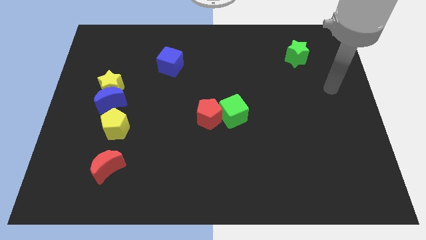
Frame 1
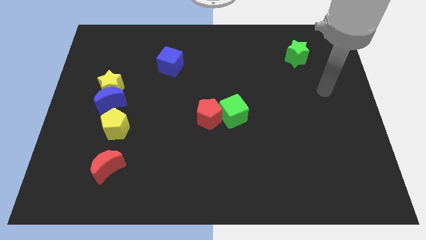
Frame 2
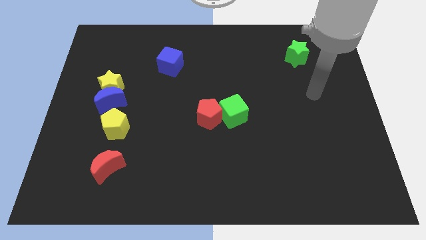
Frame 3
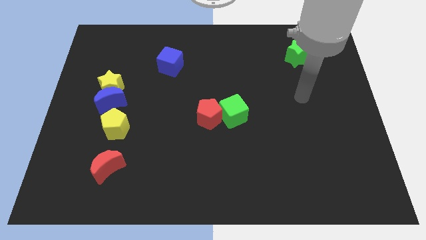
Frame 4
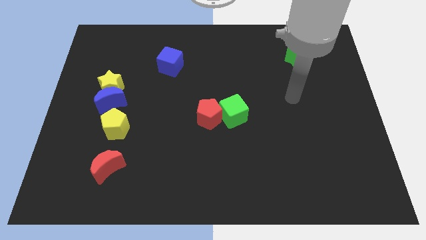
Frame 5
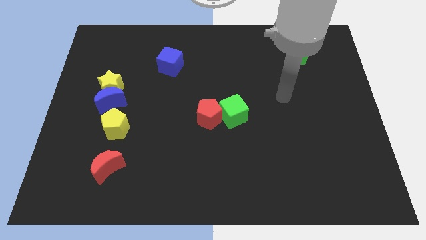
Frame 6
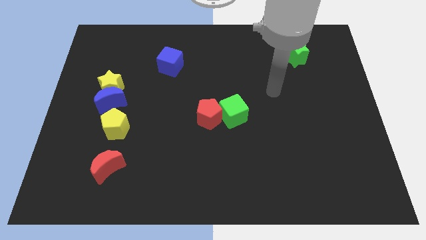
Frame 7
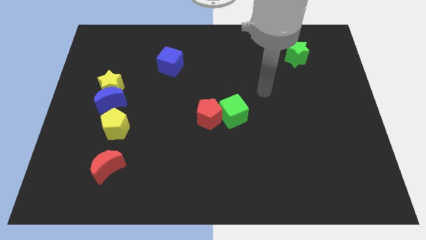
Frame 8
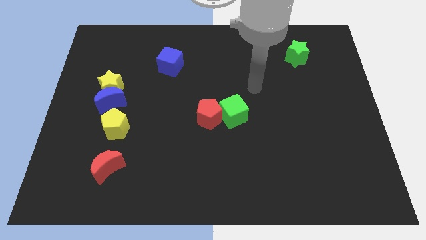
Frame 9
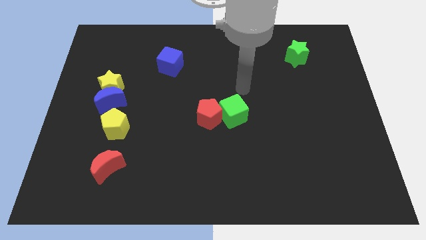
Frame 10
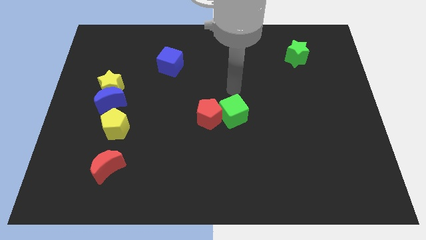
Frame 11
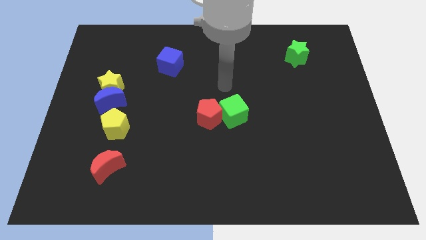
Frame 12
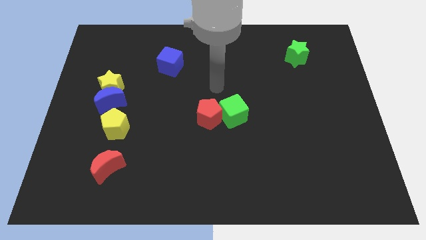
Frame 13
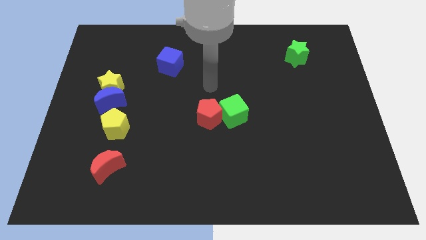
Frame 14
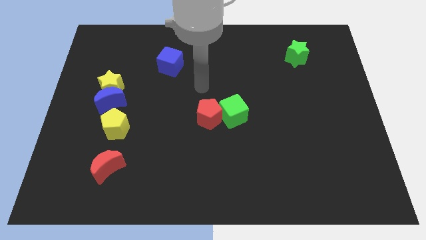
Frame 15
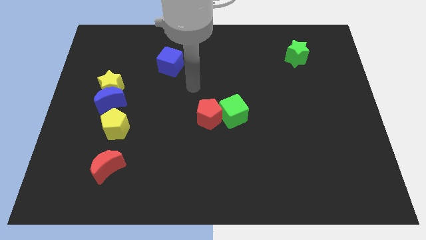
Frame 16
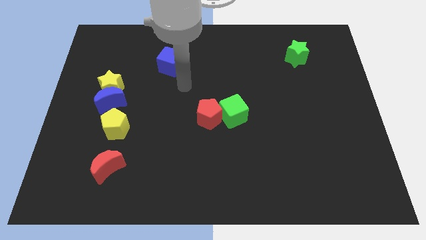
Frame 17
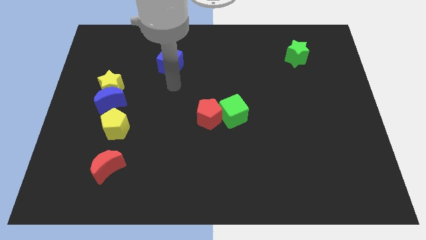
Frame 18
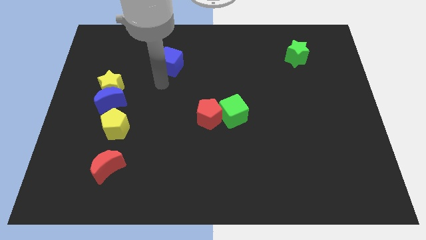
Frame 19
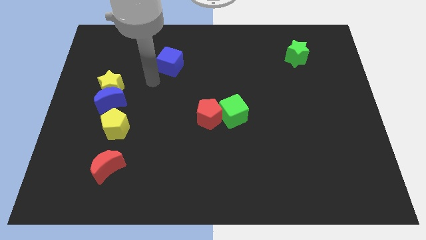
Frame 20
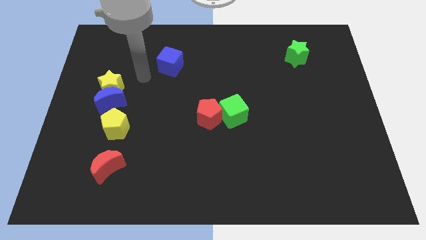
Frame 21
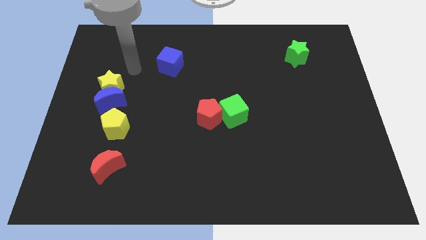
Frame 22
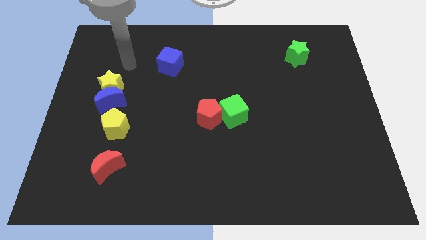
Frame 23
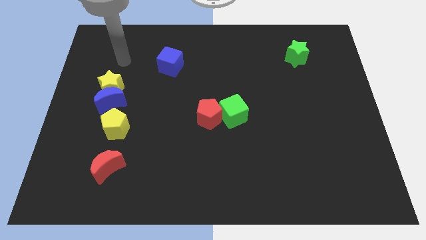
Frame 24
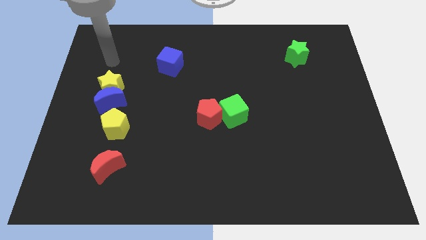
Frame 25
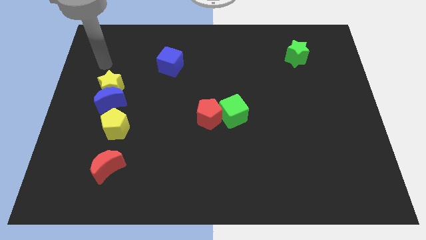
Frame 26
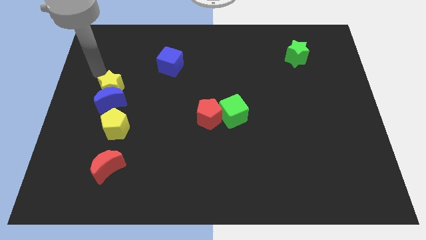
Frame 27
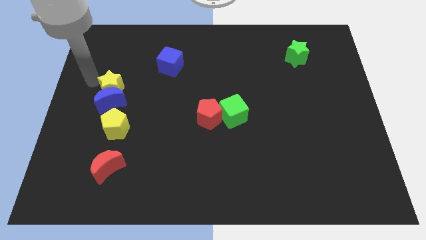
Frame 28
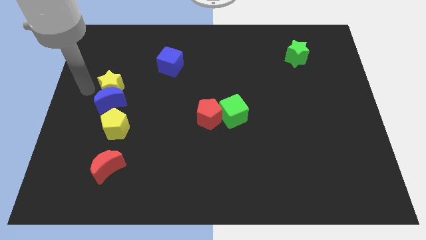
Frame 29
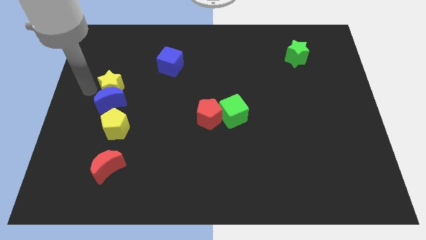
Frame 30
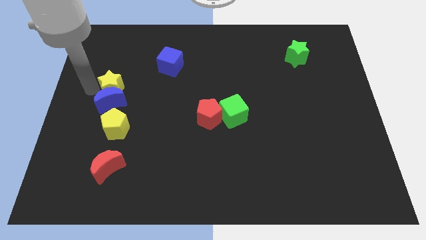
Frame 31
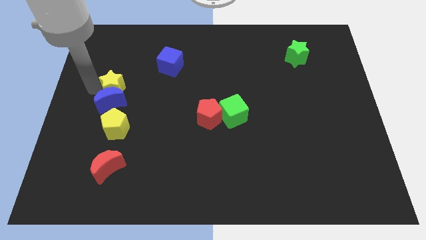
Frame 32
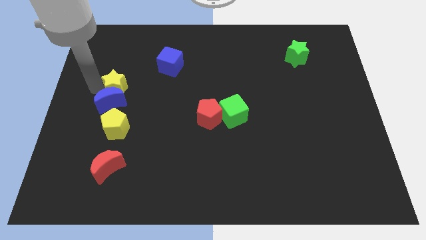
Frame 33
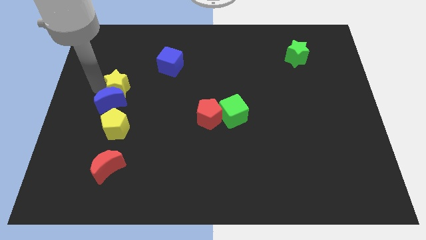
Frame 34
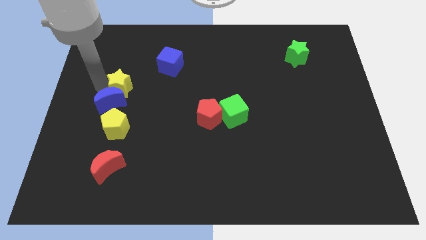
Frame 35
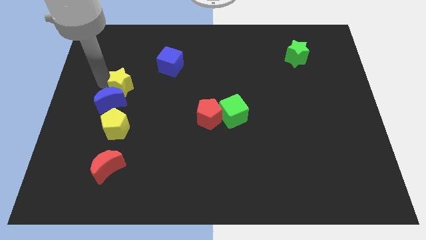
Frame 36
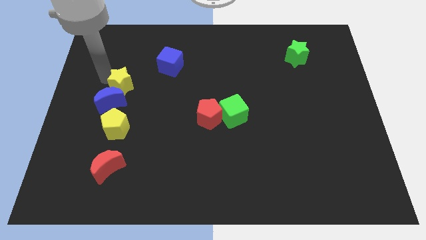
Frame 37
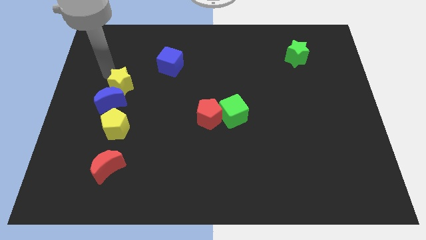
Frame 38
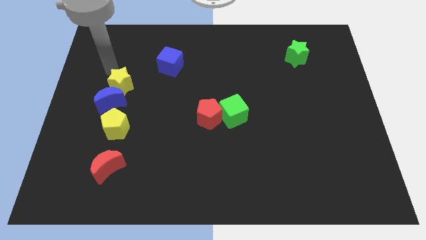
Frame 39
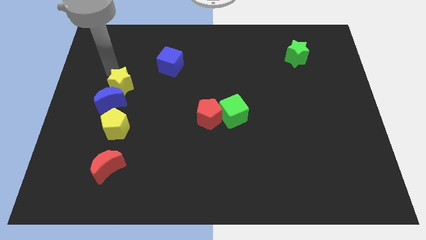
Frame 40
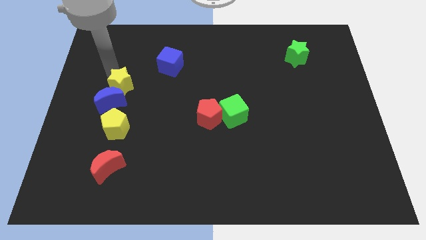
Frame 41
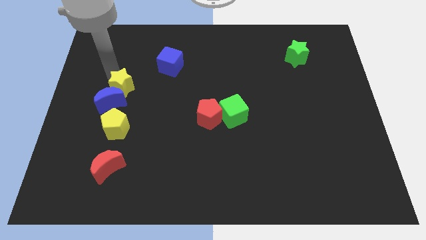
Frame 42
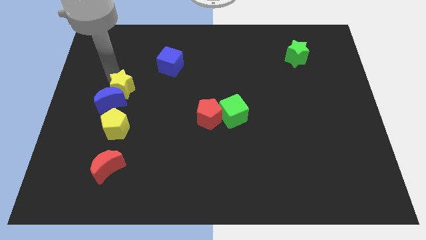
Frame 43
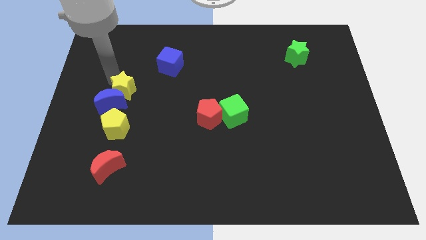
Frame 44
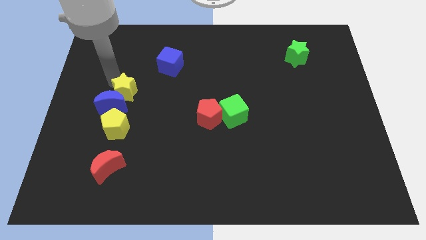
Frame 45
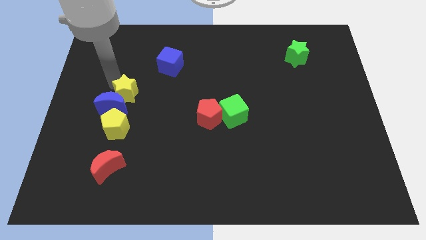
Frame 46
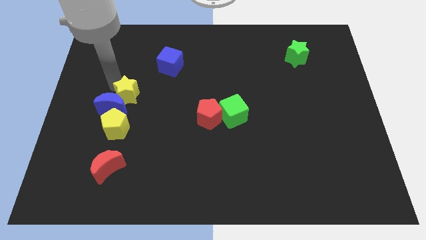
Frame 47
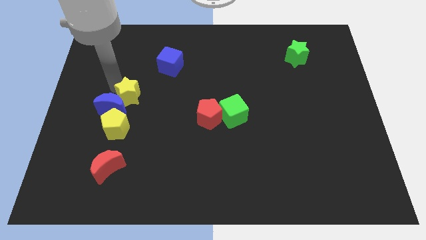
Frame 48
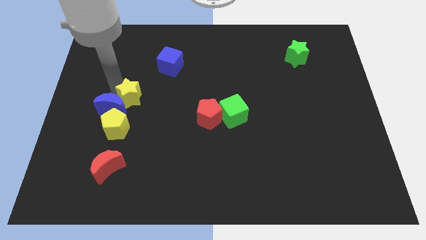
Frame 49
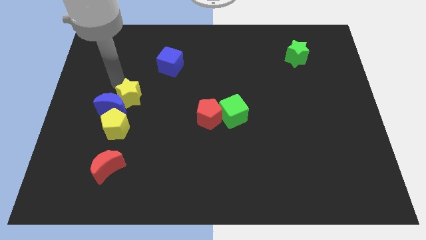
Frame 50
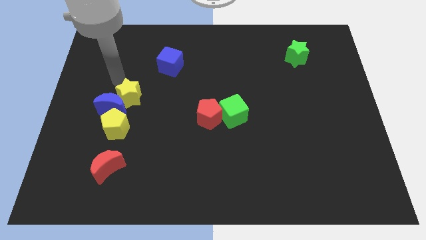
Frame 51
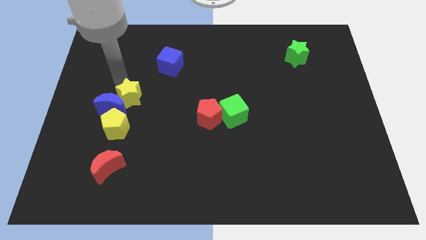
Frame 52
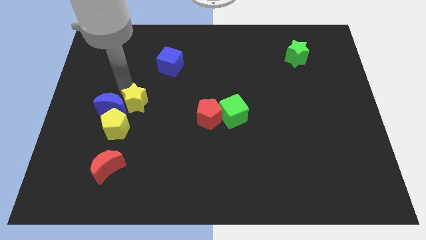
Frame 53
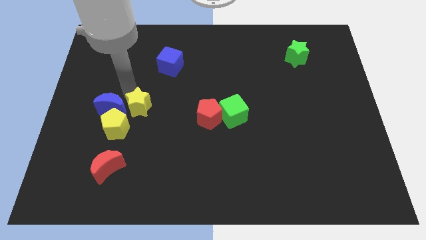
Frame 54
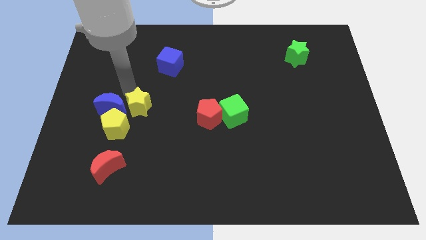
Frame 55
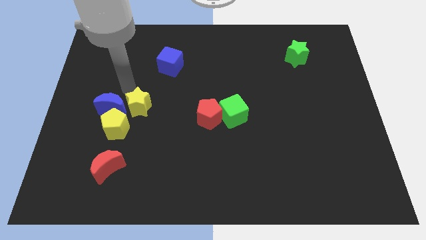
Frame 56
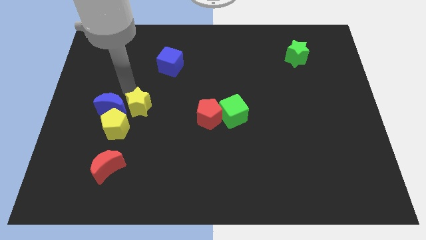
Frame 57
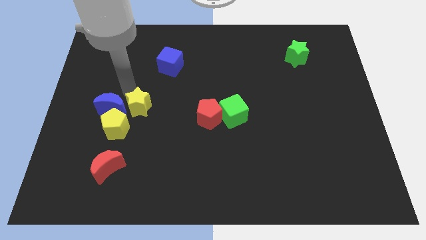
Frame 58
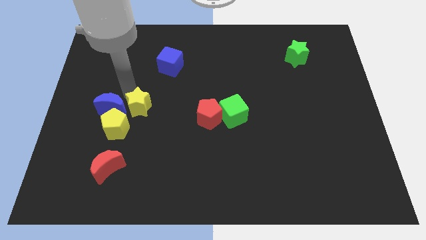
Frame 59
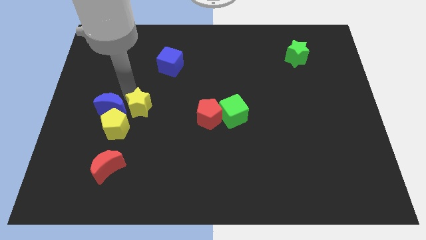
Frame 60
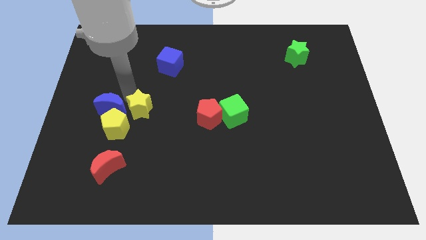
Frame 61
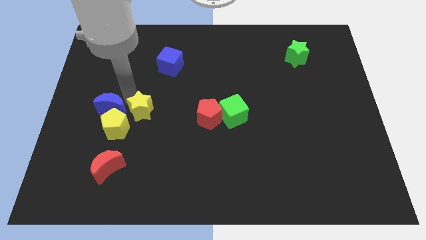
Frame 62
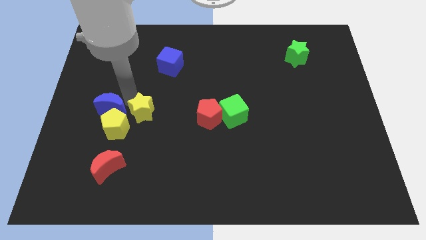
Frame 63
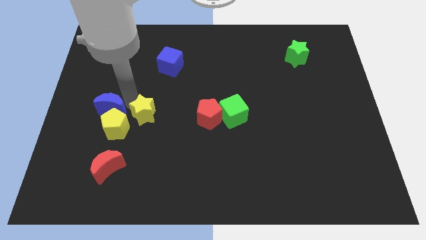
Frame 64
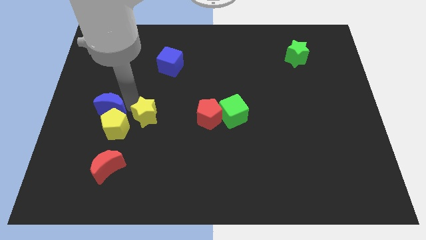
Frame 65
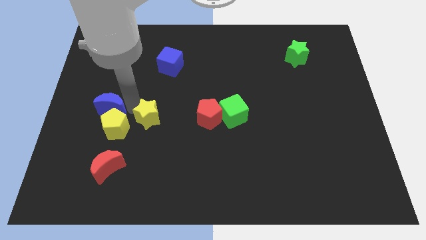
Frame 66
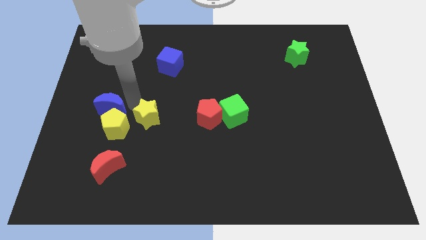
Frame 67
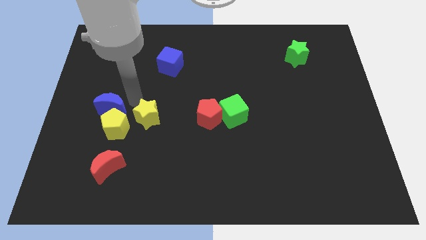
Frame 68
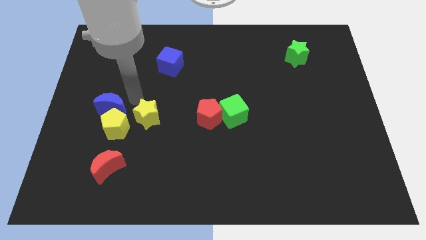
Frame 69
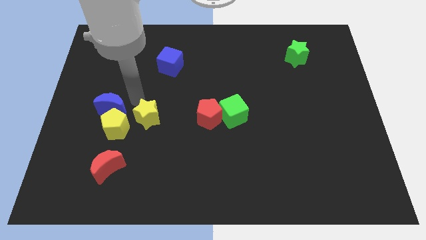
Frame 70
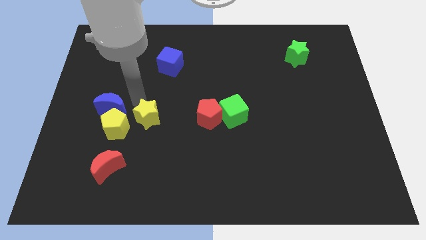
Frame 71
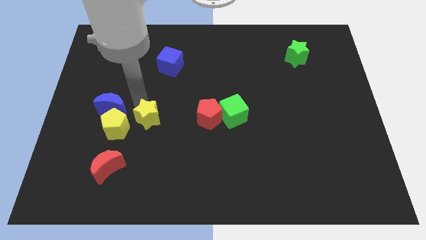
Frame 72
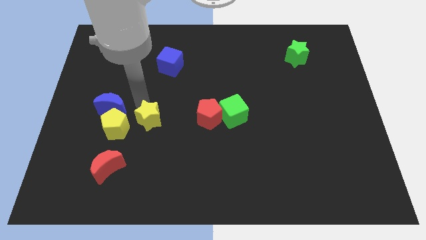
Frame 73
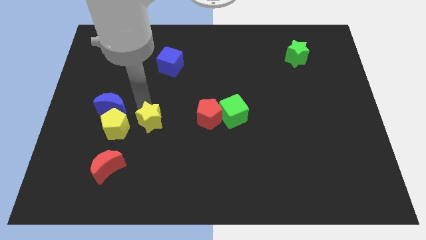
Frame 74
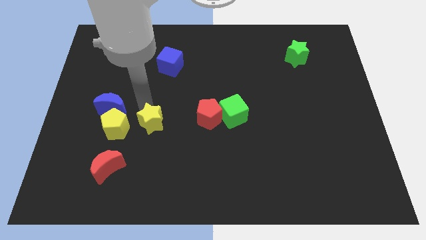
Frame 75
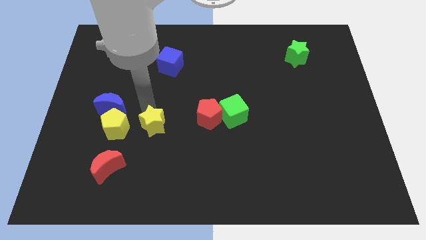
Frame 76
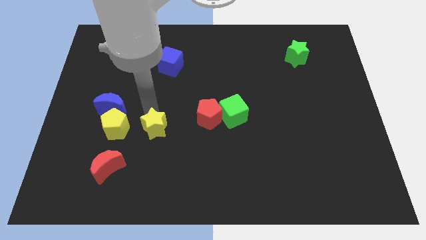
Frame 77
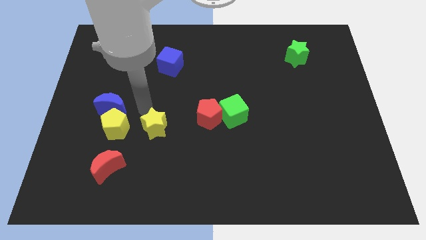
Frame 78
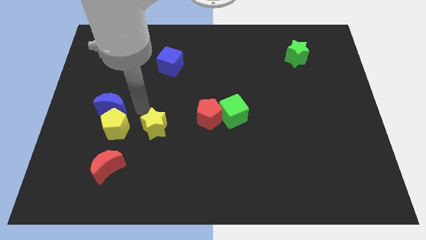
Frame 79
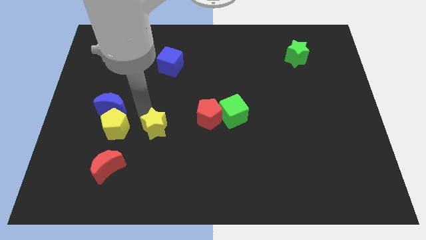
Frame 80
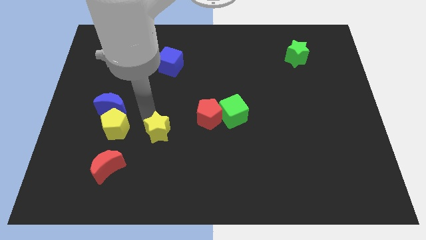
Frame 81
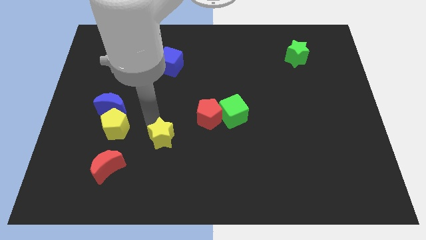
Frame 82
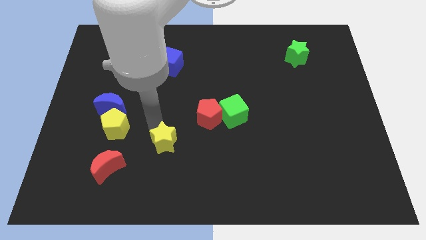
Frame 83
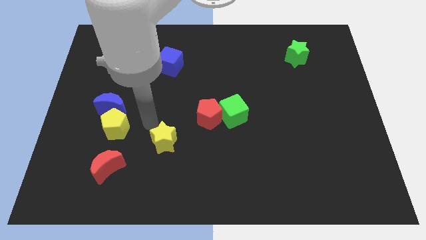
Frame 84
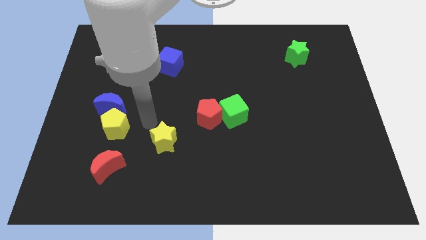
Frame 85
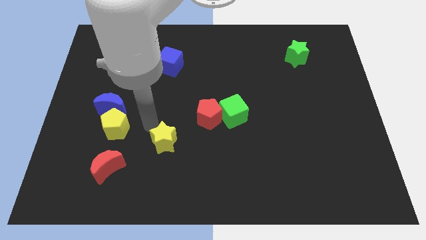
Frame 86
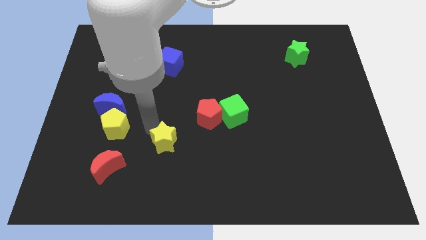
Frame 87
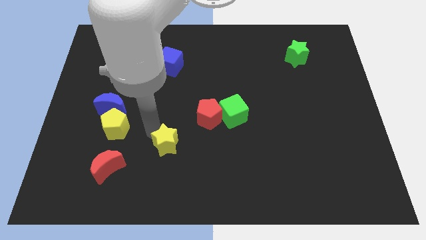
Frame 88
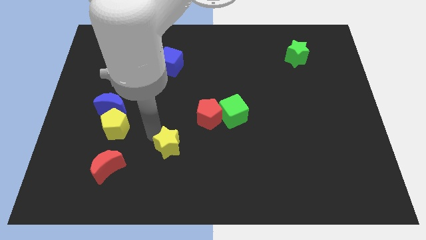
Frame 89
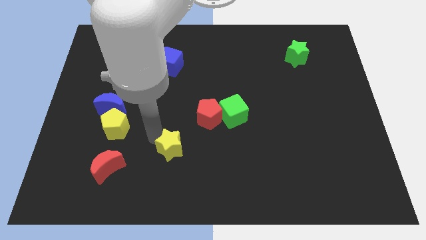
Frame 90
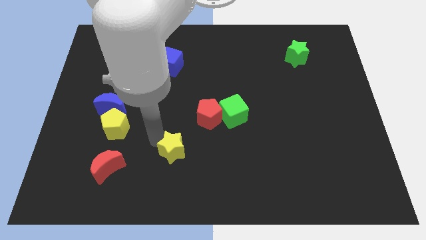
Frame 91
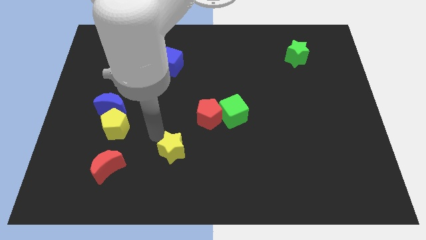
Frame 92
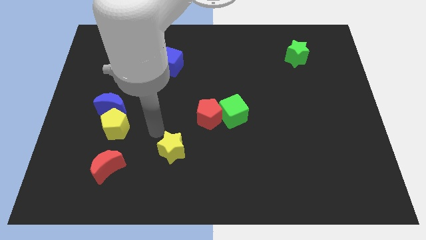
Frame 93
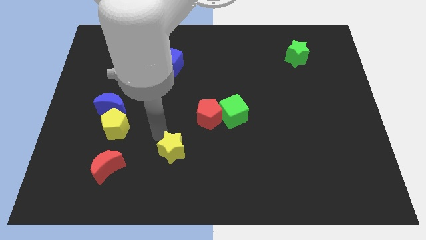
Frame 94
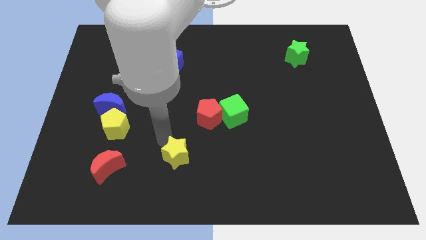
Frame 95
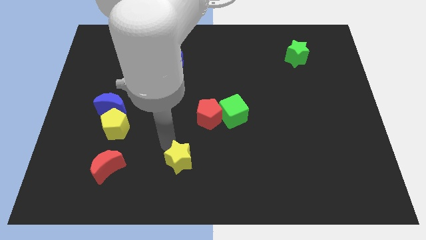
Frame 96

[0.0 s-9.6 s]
slide the yellow star to the bottom
